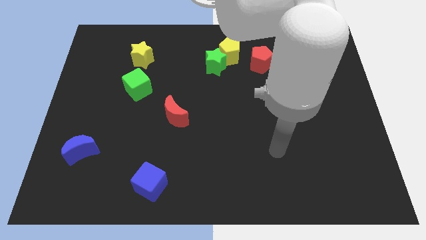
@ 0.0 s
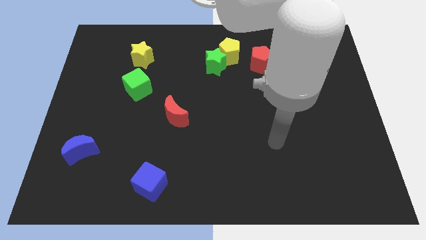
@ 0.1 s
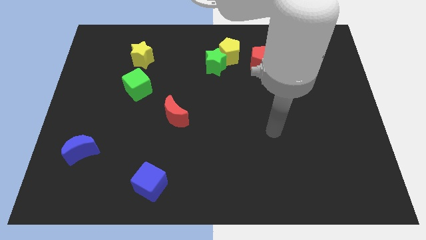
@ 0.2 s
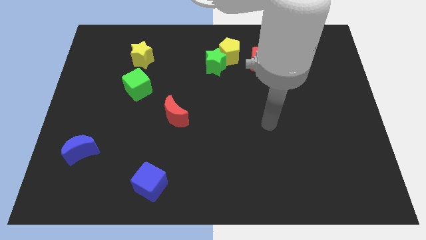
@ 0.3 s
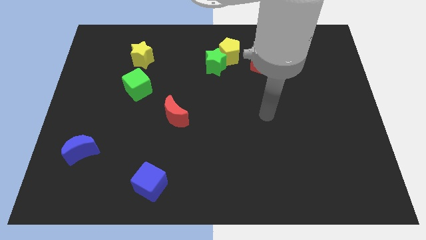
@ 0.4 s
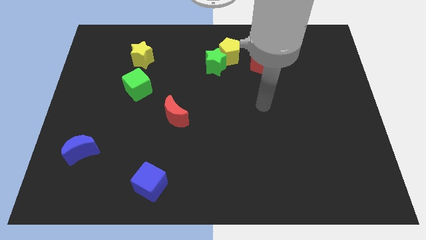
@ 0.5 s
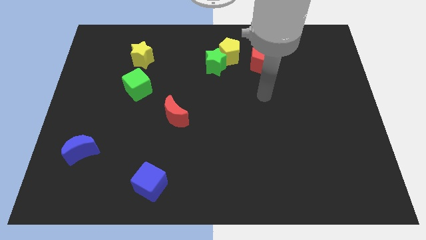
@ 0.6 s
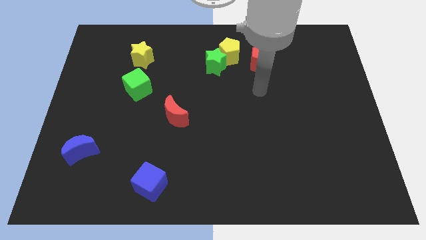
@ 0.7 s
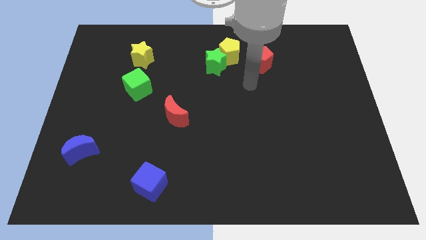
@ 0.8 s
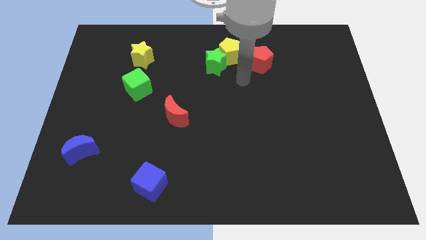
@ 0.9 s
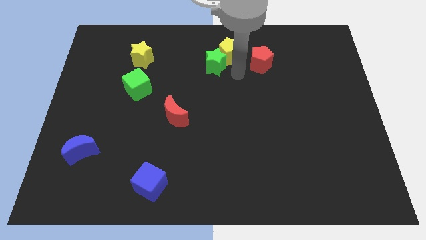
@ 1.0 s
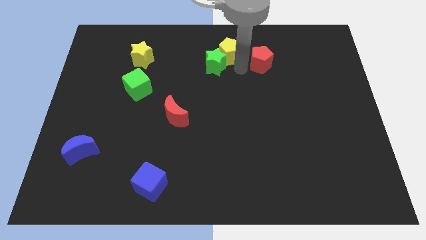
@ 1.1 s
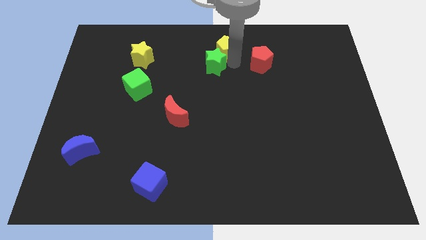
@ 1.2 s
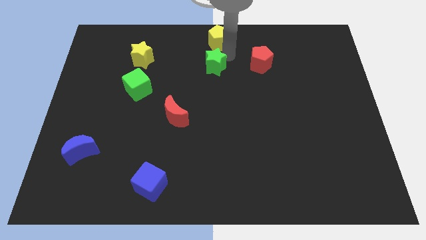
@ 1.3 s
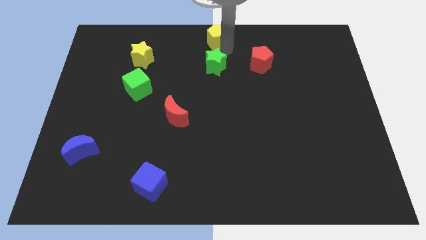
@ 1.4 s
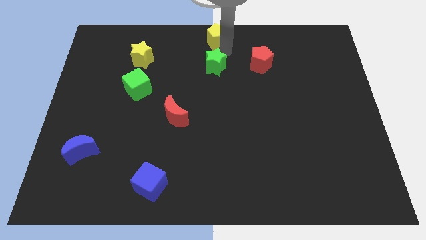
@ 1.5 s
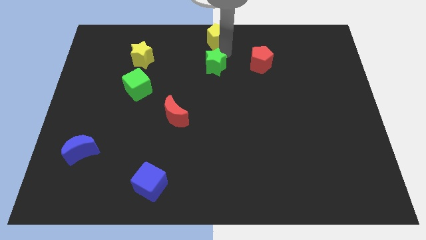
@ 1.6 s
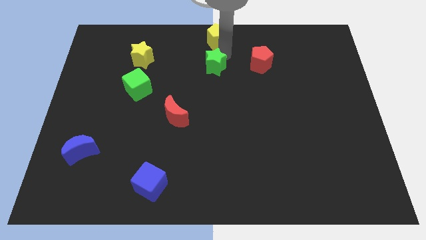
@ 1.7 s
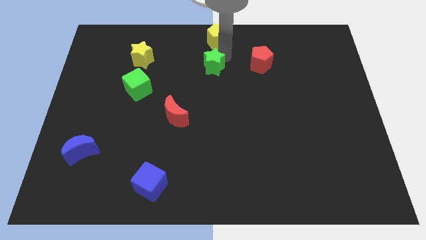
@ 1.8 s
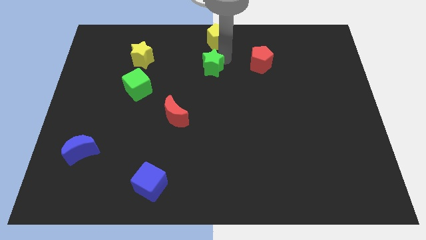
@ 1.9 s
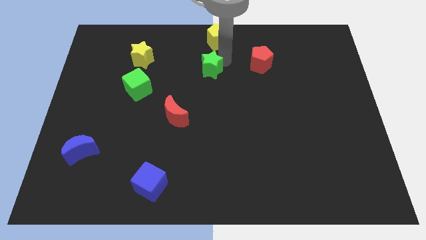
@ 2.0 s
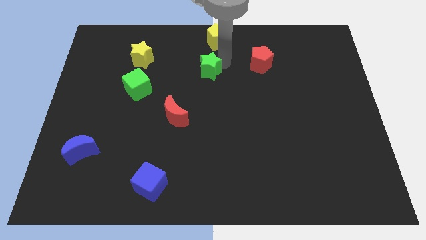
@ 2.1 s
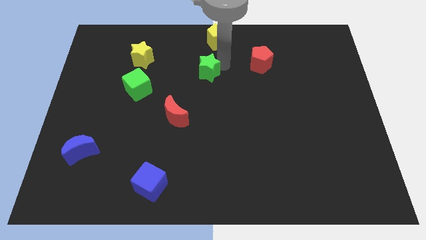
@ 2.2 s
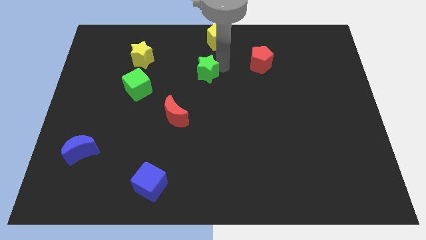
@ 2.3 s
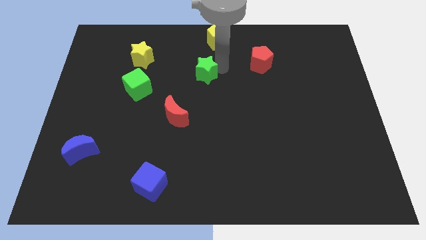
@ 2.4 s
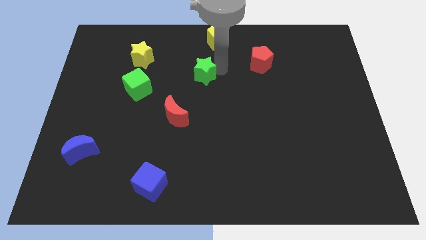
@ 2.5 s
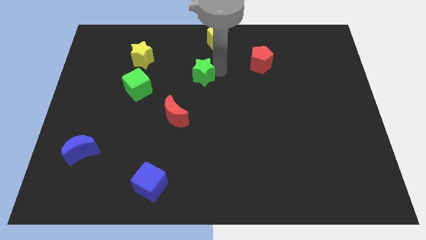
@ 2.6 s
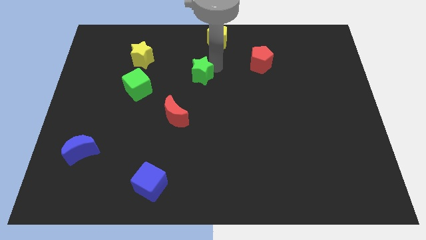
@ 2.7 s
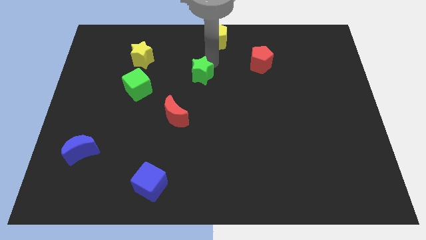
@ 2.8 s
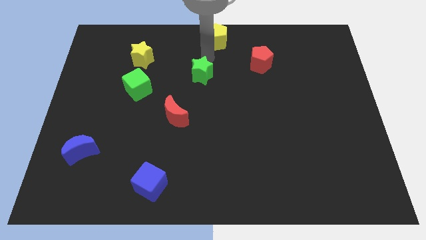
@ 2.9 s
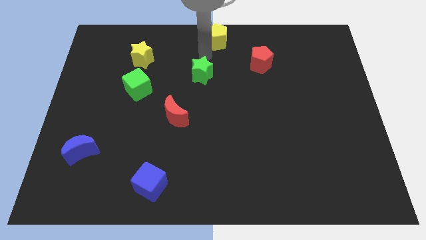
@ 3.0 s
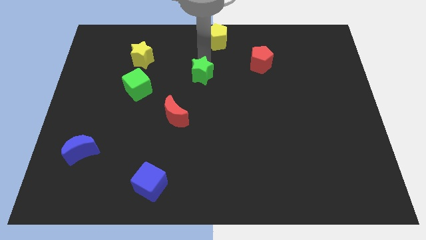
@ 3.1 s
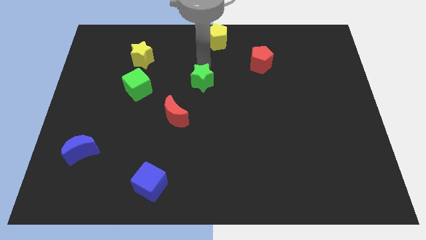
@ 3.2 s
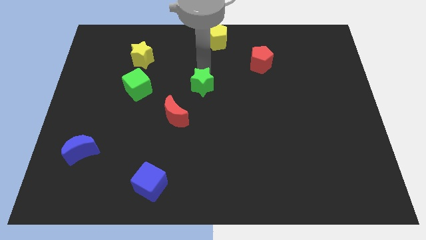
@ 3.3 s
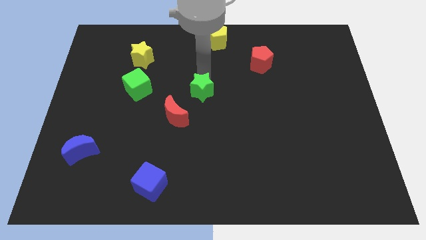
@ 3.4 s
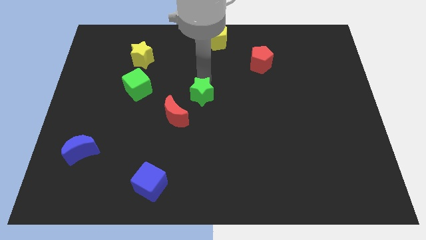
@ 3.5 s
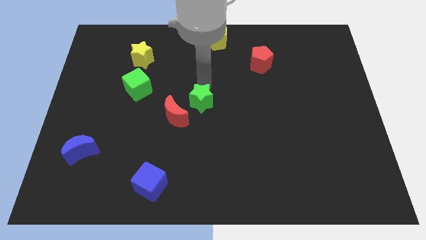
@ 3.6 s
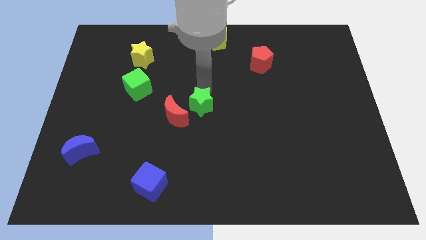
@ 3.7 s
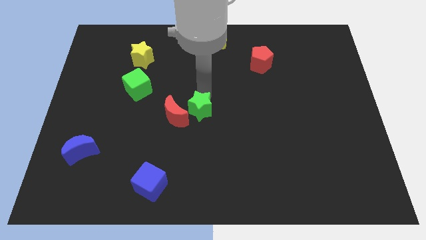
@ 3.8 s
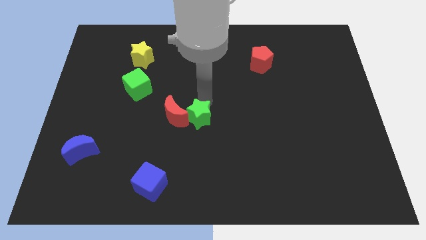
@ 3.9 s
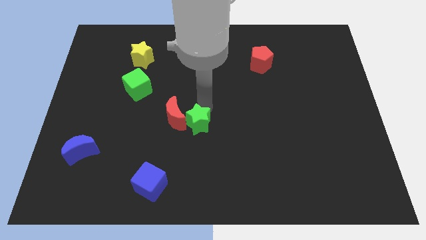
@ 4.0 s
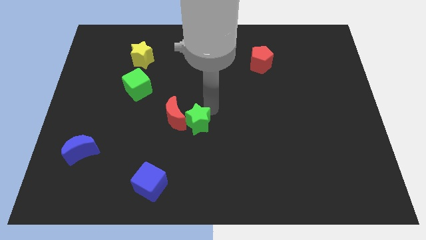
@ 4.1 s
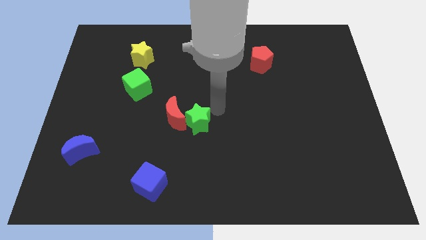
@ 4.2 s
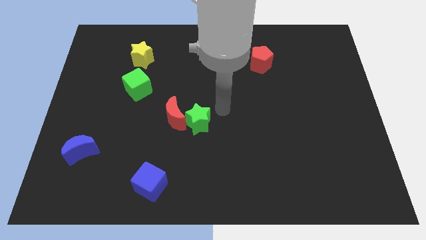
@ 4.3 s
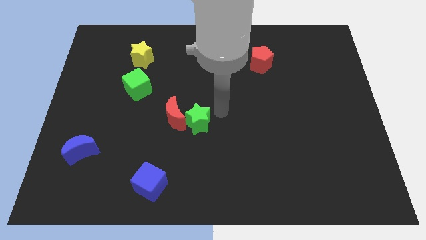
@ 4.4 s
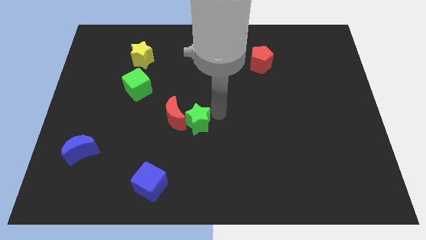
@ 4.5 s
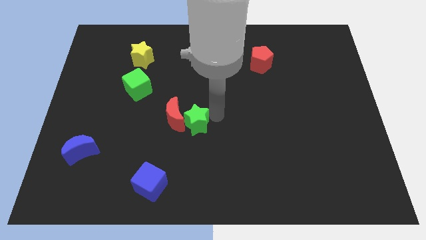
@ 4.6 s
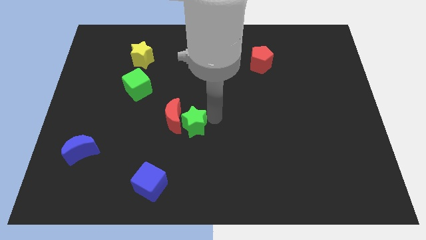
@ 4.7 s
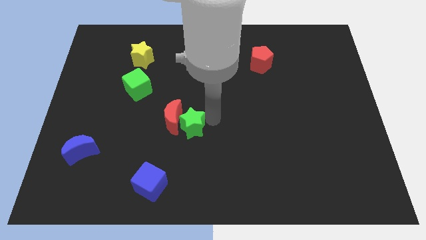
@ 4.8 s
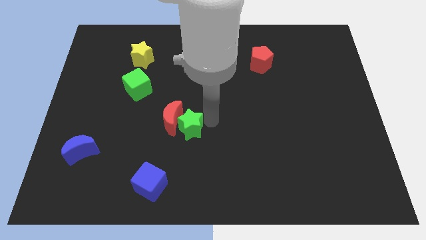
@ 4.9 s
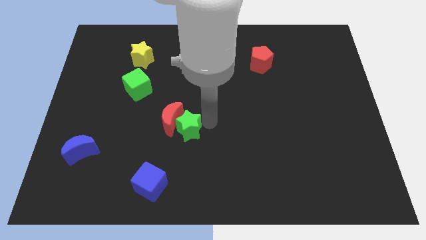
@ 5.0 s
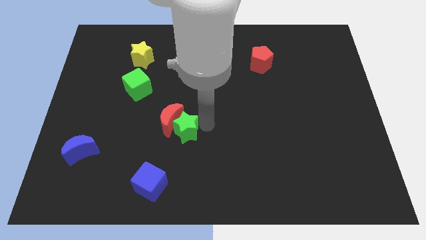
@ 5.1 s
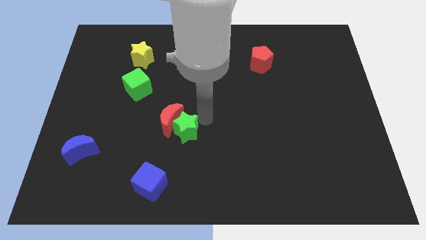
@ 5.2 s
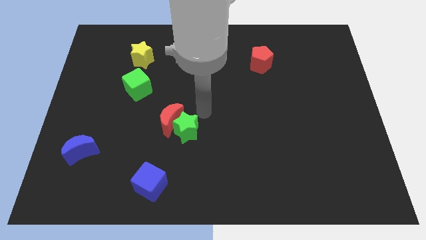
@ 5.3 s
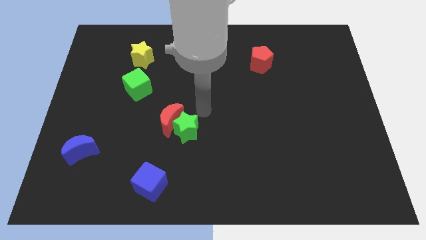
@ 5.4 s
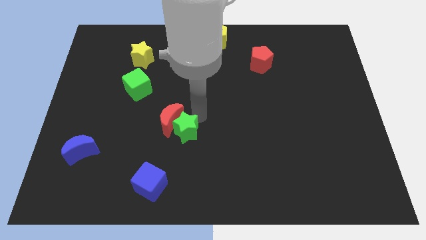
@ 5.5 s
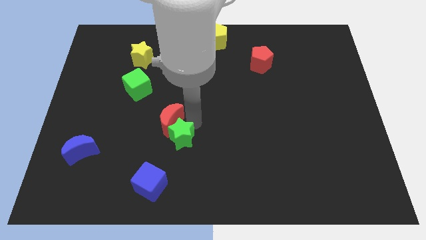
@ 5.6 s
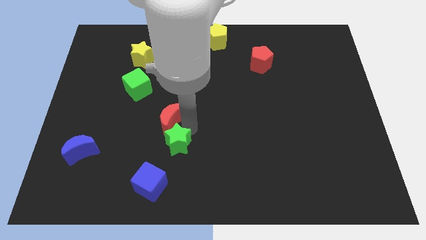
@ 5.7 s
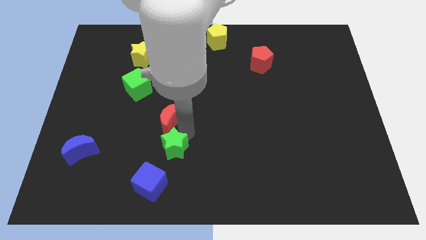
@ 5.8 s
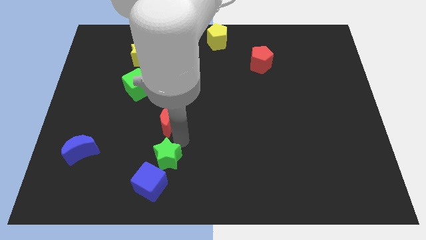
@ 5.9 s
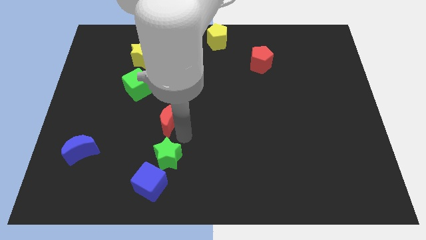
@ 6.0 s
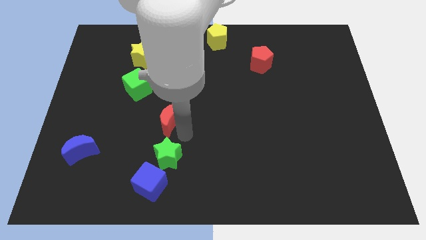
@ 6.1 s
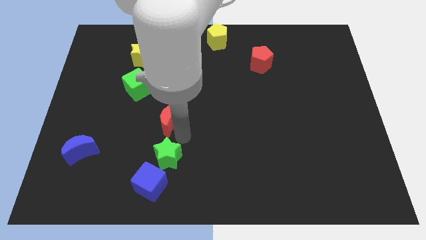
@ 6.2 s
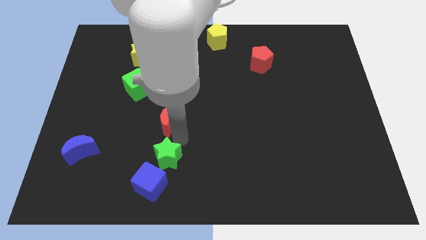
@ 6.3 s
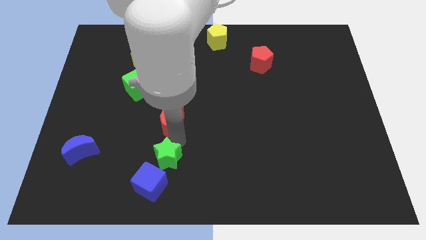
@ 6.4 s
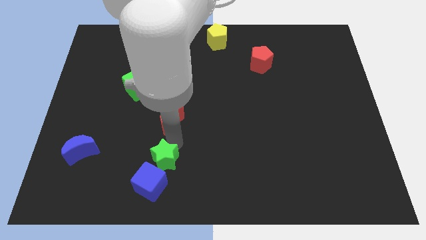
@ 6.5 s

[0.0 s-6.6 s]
push the green star next to the blue cube
